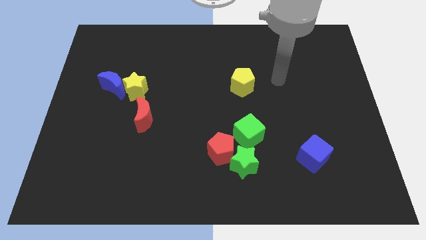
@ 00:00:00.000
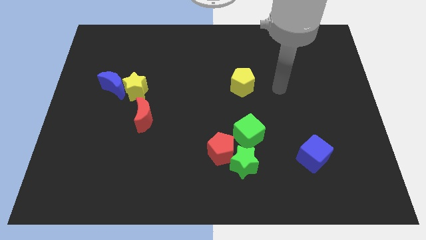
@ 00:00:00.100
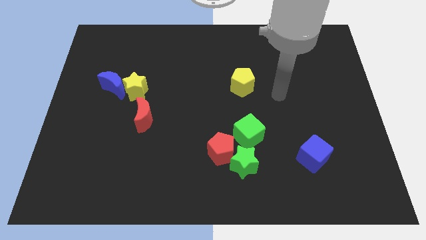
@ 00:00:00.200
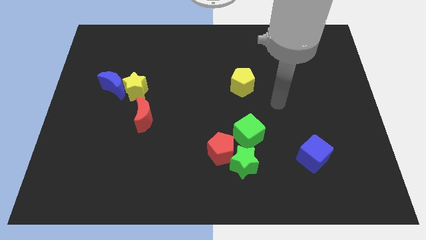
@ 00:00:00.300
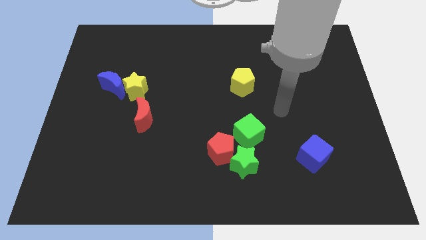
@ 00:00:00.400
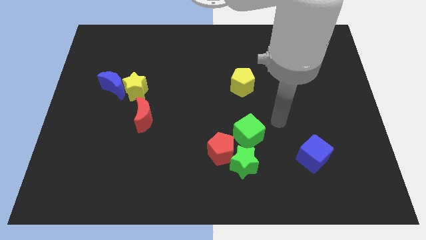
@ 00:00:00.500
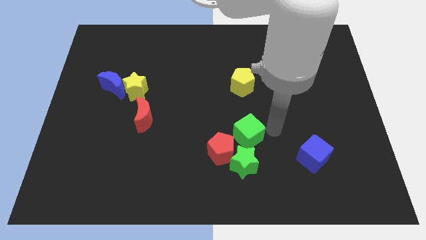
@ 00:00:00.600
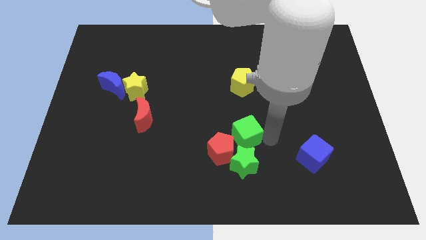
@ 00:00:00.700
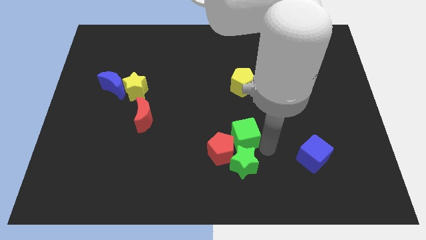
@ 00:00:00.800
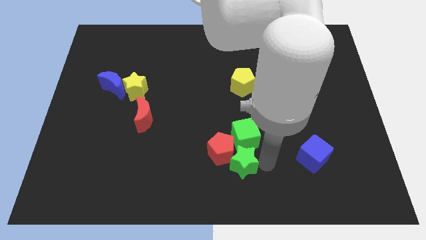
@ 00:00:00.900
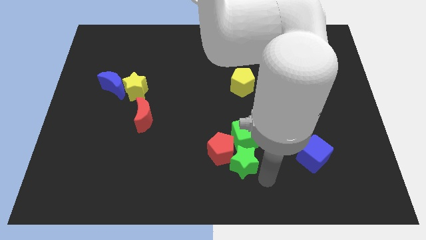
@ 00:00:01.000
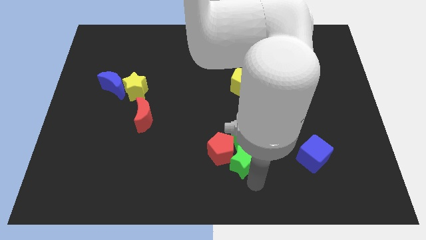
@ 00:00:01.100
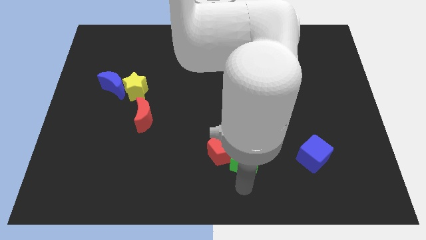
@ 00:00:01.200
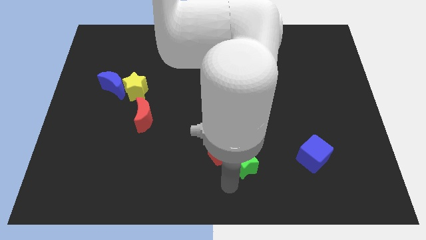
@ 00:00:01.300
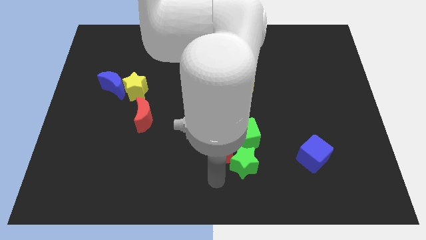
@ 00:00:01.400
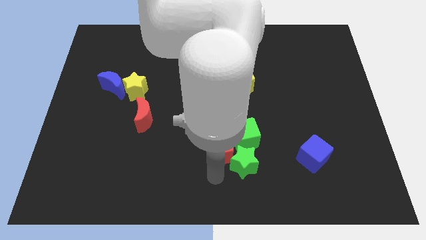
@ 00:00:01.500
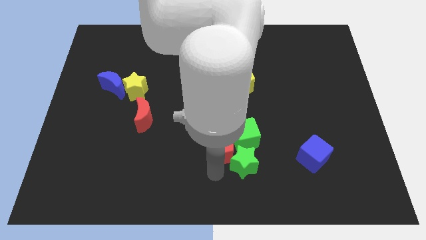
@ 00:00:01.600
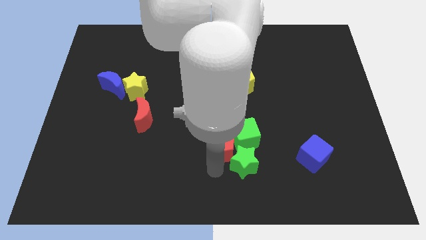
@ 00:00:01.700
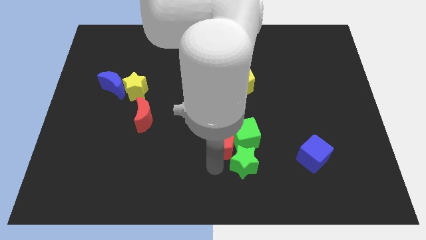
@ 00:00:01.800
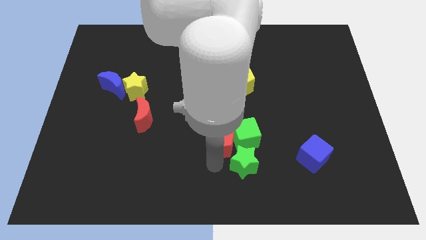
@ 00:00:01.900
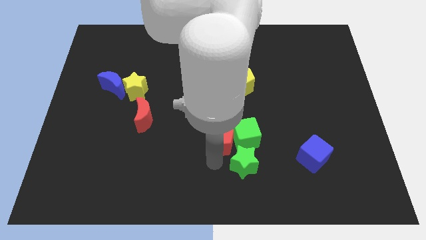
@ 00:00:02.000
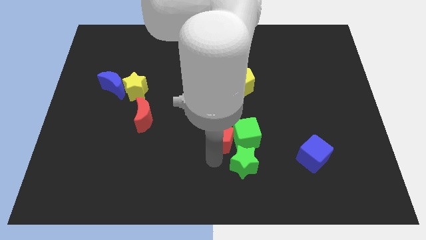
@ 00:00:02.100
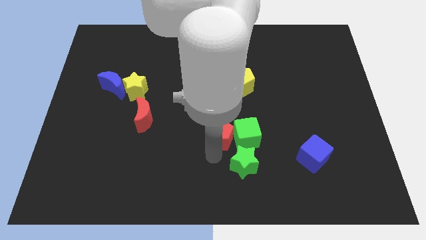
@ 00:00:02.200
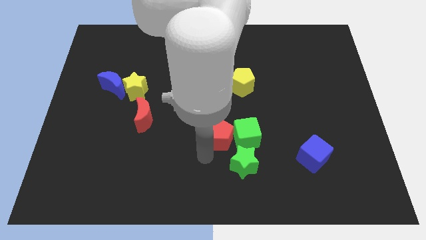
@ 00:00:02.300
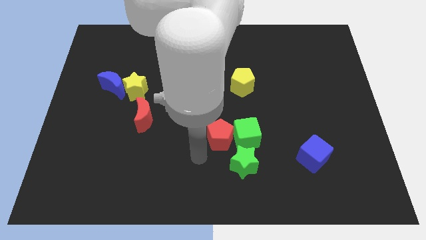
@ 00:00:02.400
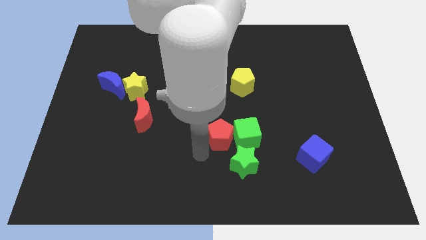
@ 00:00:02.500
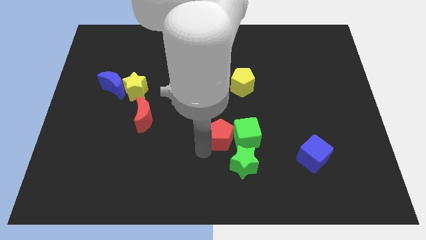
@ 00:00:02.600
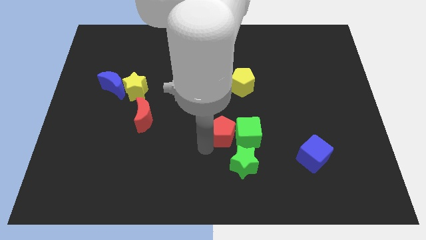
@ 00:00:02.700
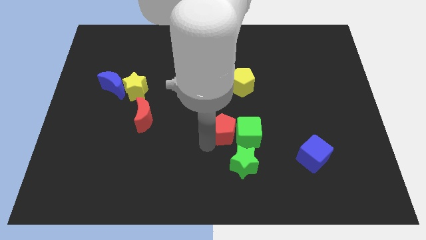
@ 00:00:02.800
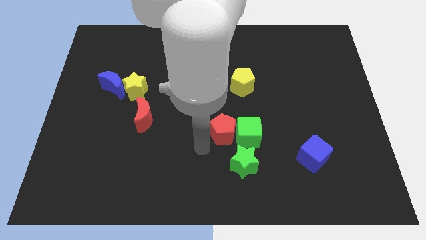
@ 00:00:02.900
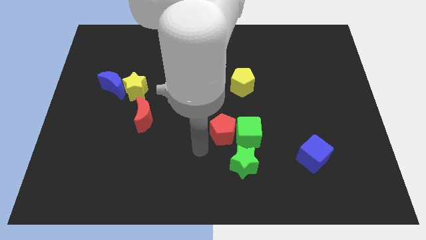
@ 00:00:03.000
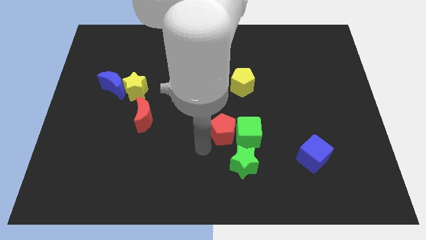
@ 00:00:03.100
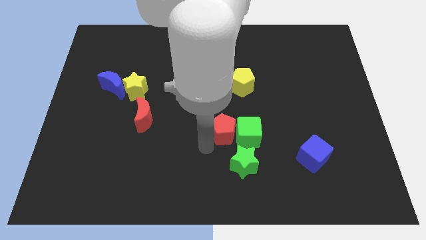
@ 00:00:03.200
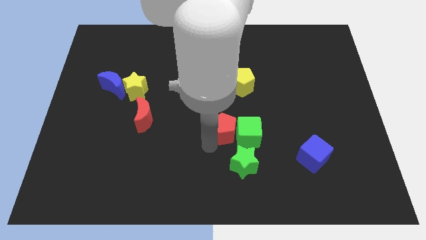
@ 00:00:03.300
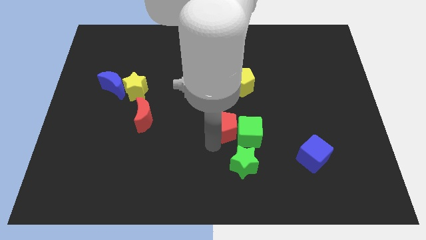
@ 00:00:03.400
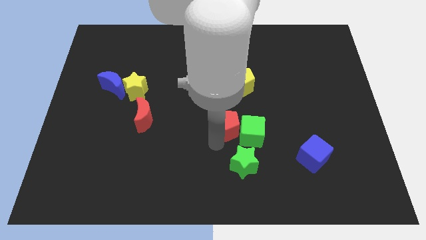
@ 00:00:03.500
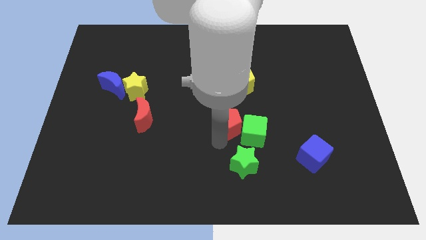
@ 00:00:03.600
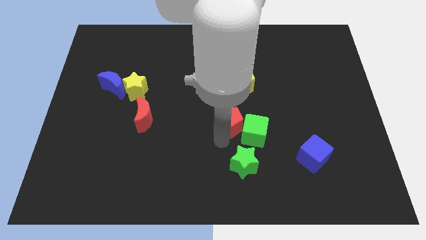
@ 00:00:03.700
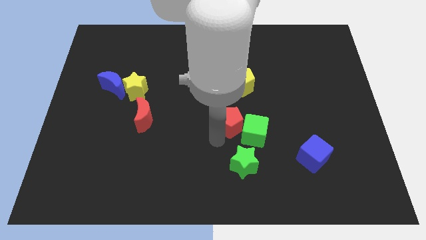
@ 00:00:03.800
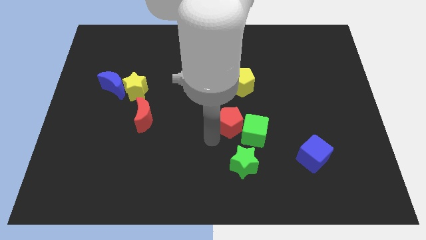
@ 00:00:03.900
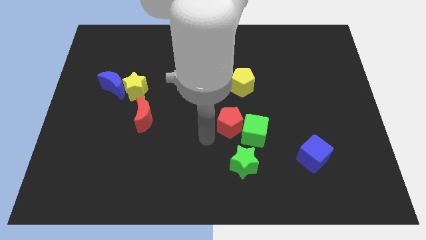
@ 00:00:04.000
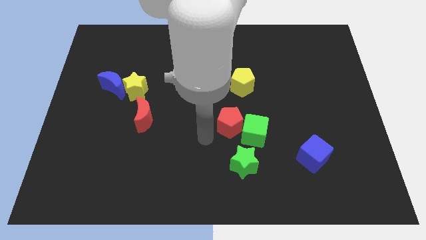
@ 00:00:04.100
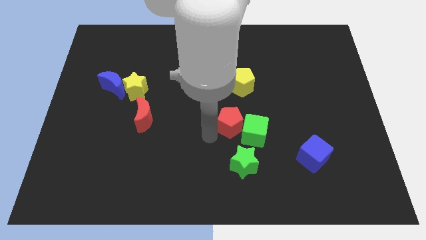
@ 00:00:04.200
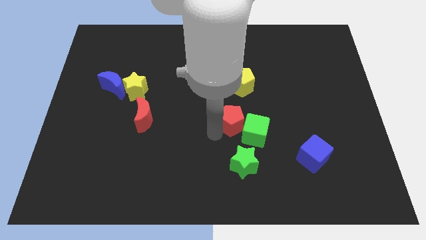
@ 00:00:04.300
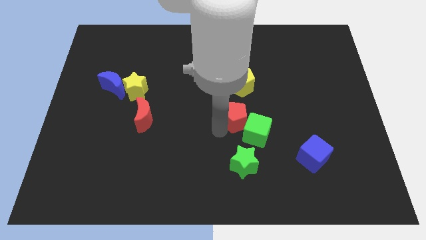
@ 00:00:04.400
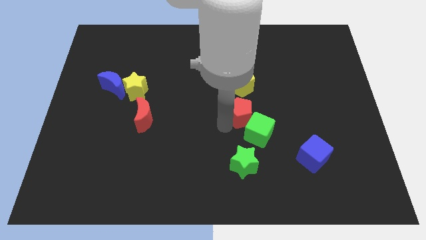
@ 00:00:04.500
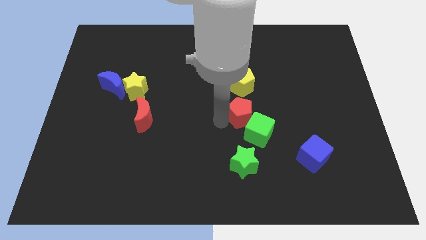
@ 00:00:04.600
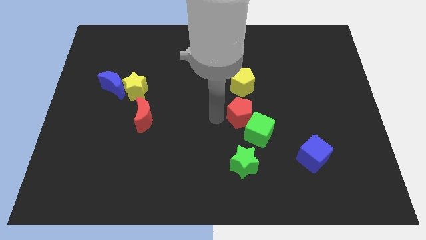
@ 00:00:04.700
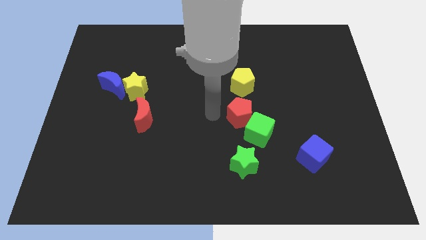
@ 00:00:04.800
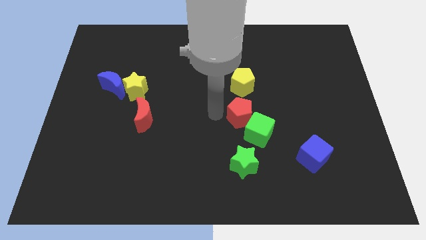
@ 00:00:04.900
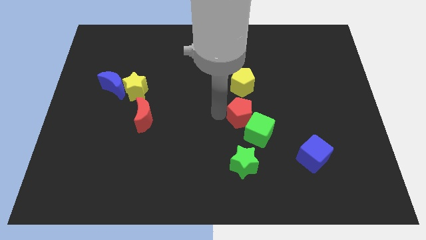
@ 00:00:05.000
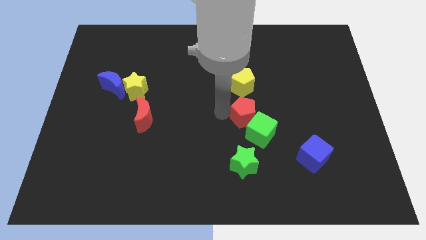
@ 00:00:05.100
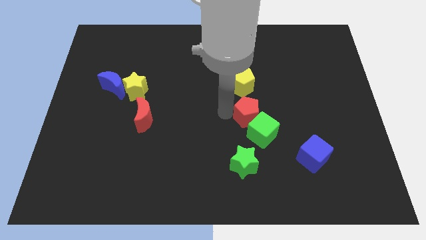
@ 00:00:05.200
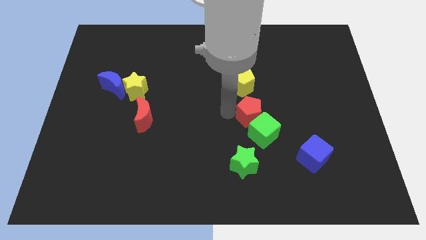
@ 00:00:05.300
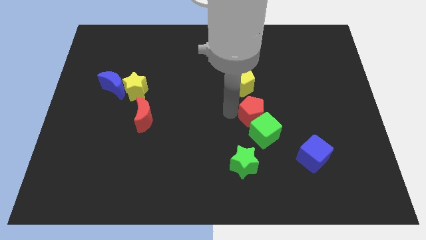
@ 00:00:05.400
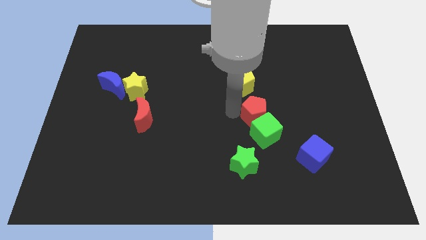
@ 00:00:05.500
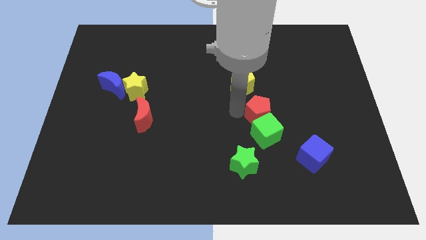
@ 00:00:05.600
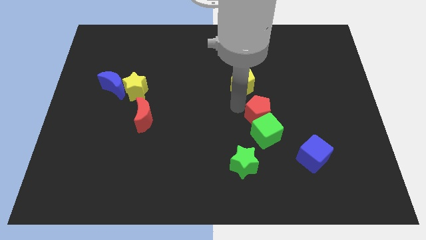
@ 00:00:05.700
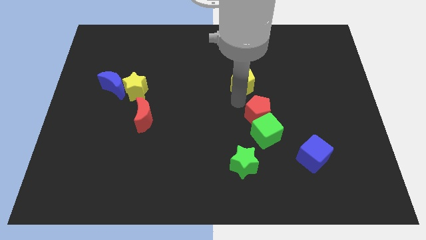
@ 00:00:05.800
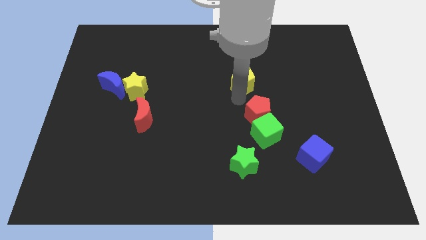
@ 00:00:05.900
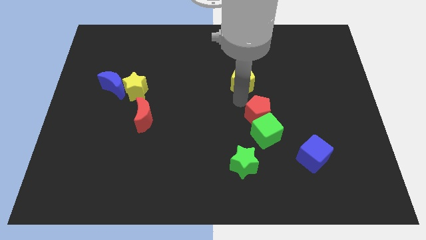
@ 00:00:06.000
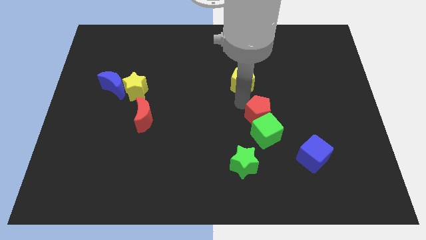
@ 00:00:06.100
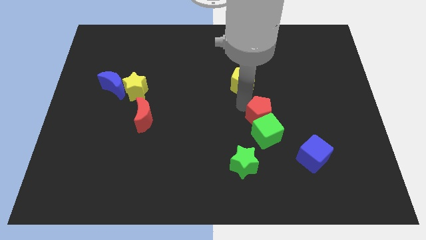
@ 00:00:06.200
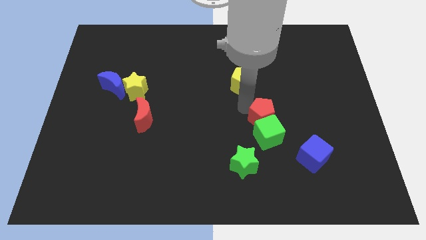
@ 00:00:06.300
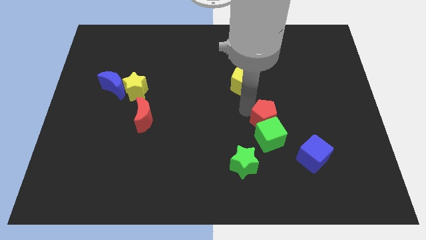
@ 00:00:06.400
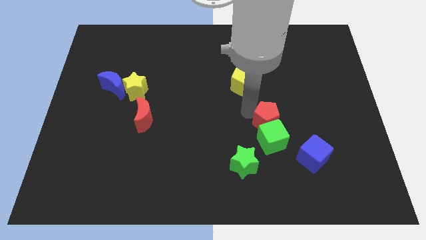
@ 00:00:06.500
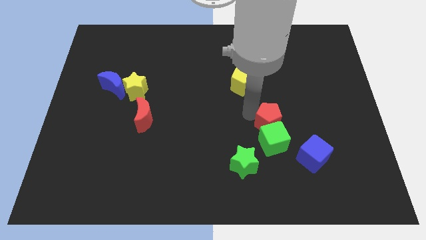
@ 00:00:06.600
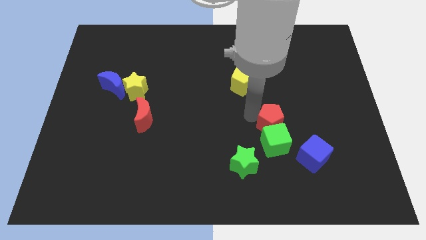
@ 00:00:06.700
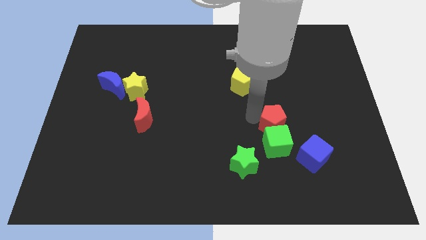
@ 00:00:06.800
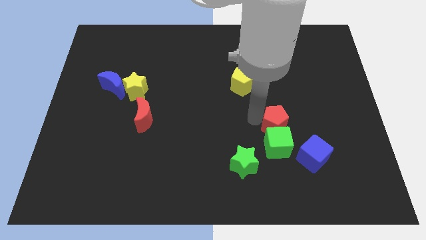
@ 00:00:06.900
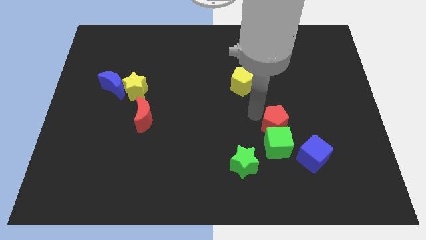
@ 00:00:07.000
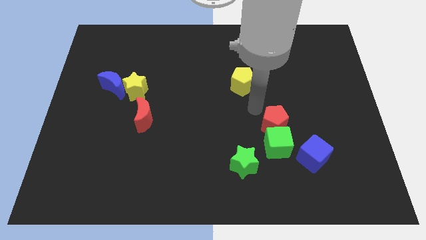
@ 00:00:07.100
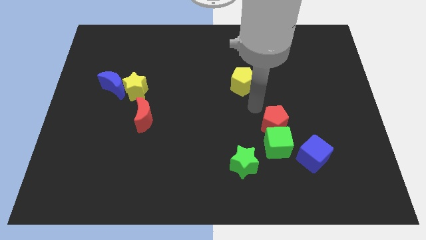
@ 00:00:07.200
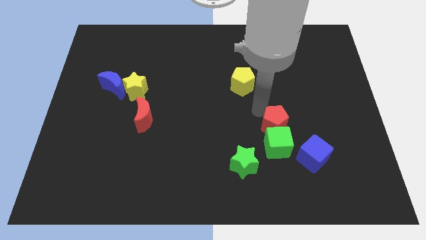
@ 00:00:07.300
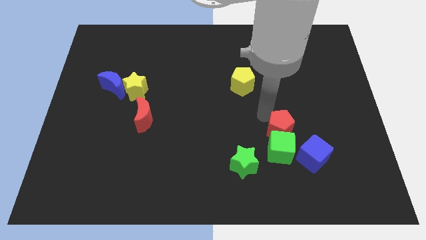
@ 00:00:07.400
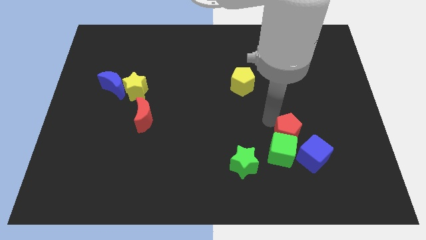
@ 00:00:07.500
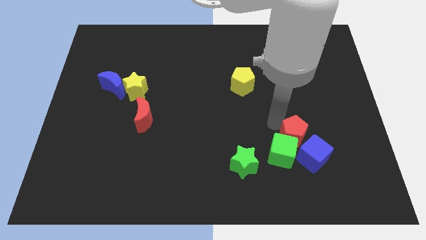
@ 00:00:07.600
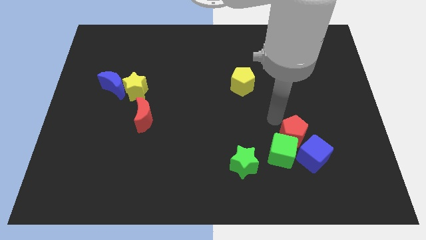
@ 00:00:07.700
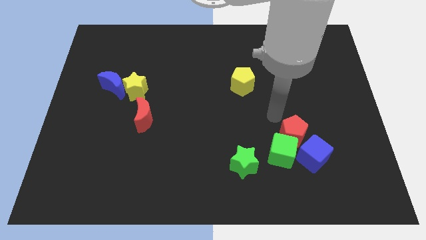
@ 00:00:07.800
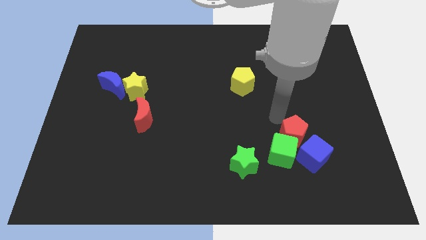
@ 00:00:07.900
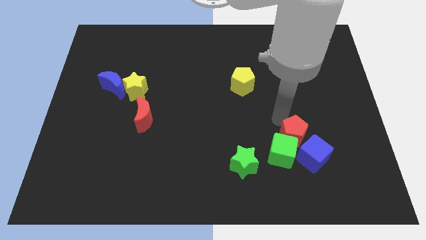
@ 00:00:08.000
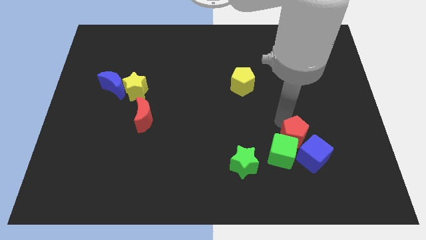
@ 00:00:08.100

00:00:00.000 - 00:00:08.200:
move the red pentagon to the blue cube
